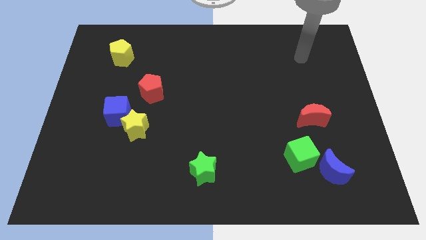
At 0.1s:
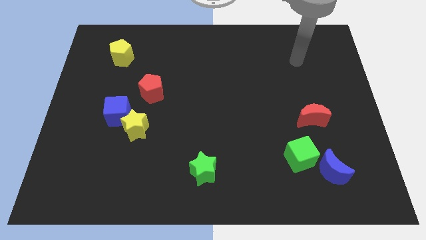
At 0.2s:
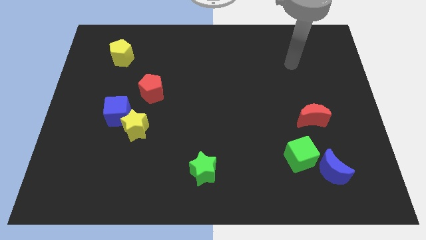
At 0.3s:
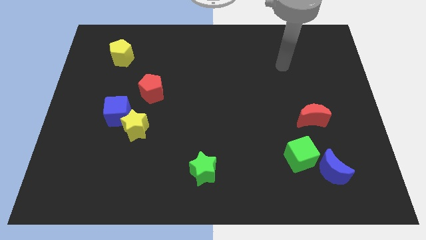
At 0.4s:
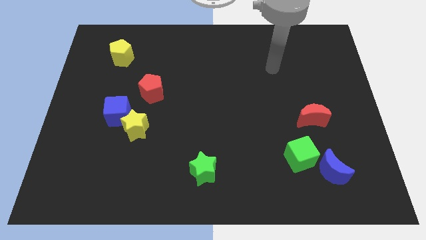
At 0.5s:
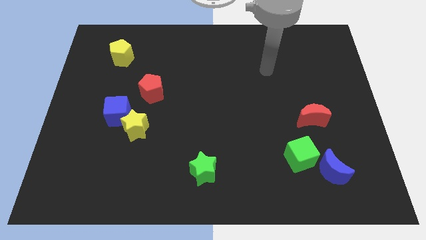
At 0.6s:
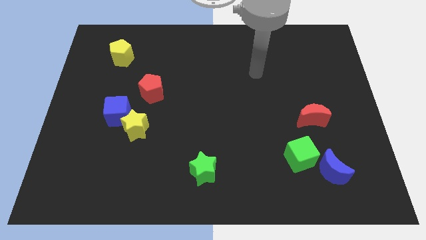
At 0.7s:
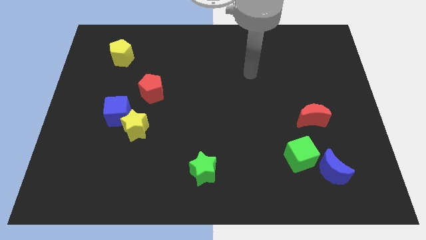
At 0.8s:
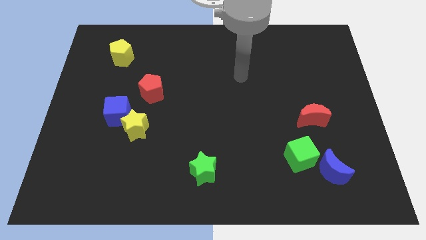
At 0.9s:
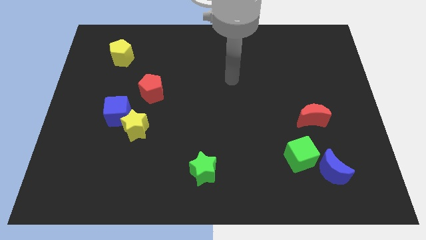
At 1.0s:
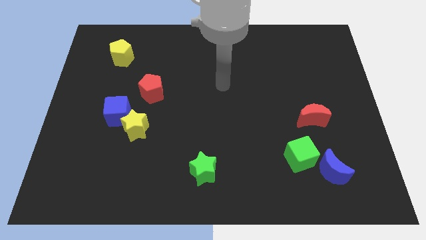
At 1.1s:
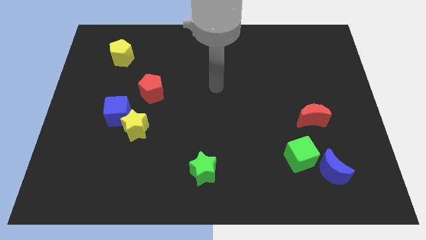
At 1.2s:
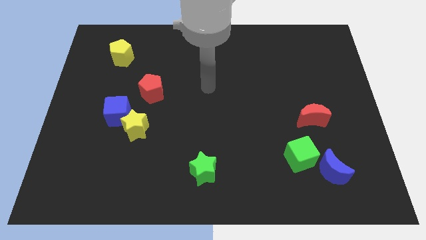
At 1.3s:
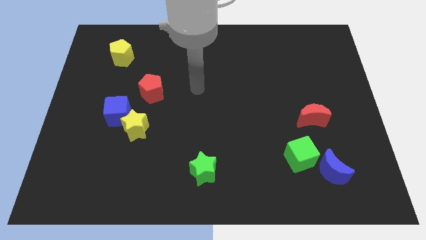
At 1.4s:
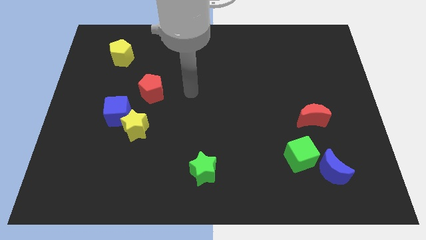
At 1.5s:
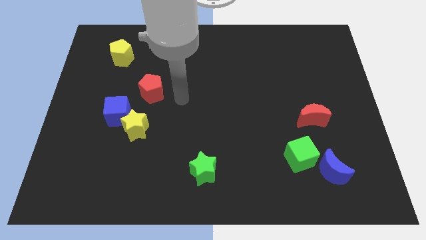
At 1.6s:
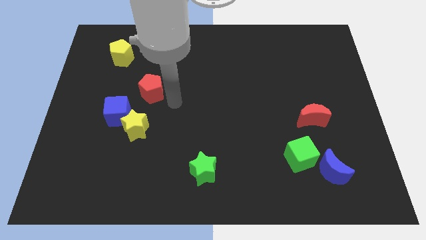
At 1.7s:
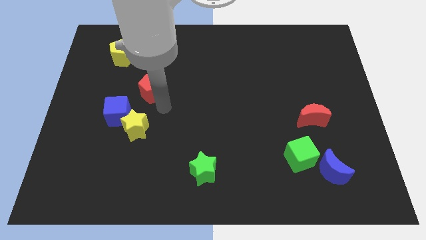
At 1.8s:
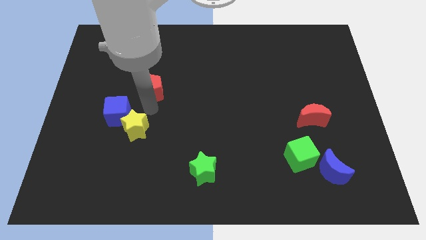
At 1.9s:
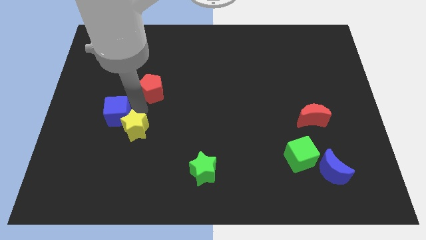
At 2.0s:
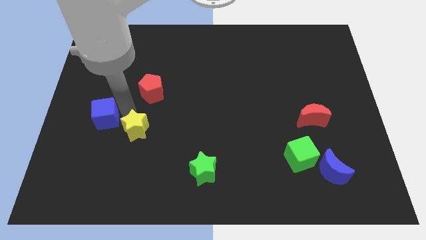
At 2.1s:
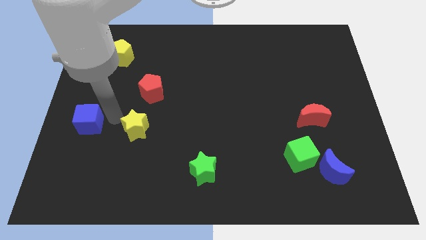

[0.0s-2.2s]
separate the yellow star from the blue cube

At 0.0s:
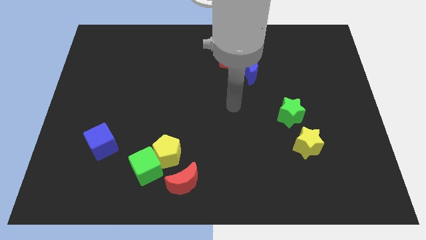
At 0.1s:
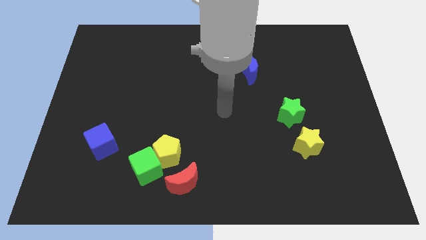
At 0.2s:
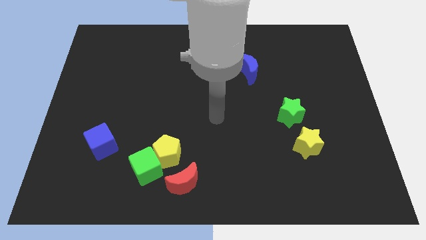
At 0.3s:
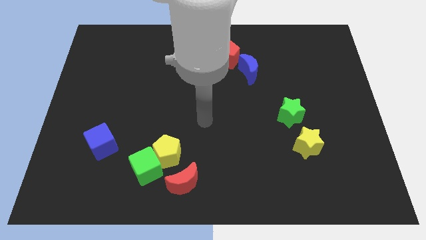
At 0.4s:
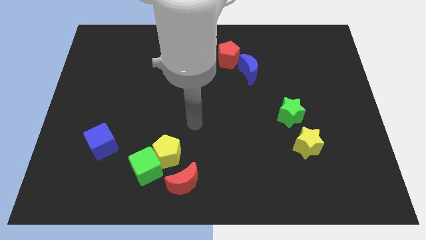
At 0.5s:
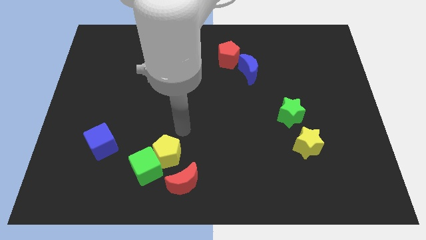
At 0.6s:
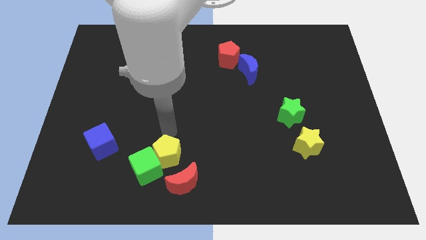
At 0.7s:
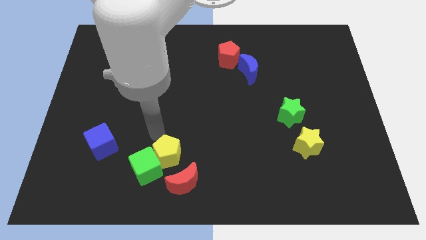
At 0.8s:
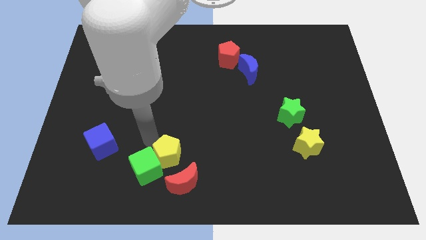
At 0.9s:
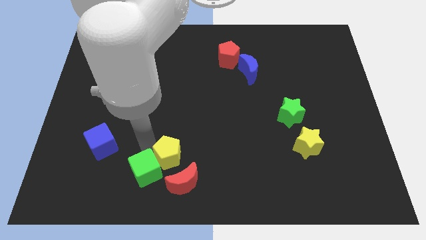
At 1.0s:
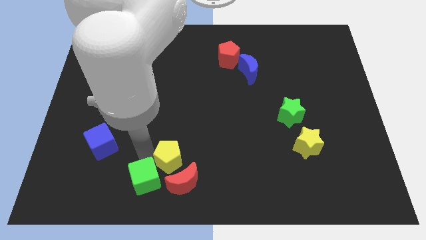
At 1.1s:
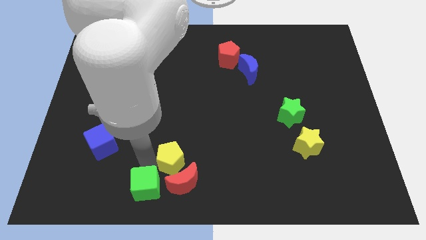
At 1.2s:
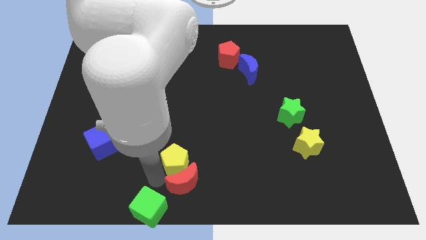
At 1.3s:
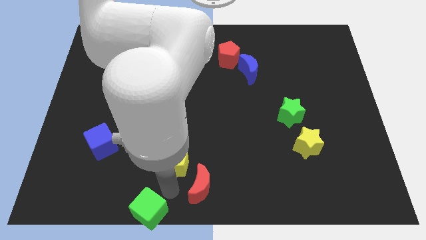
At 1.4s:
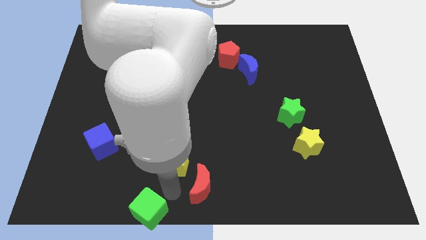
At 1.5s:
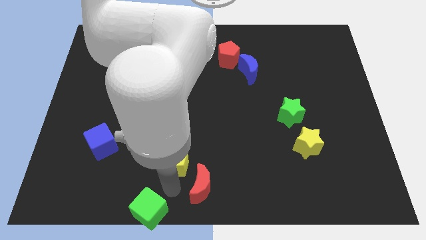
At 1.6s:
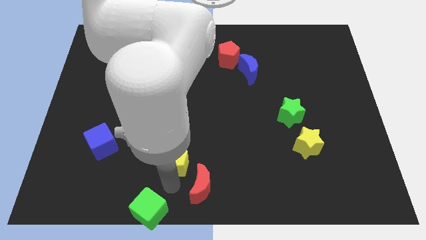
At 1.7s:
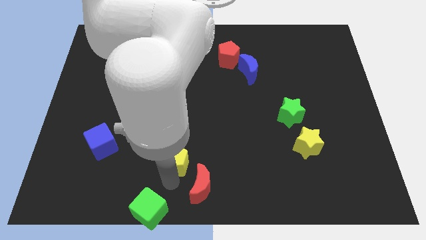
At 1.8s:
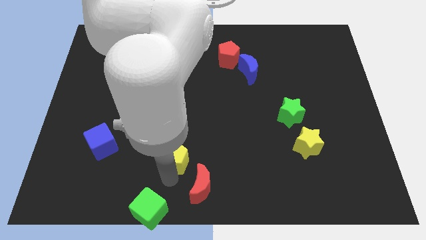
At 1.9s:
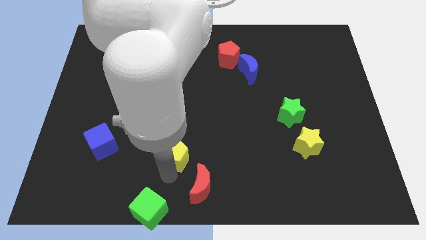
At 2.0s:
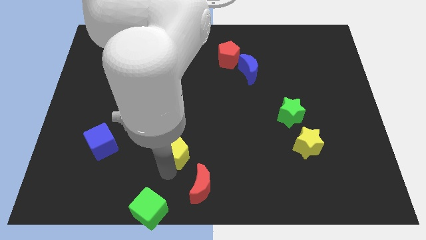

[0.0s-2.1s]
separate the yellow pentagon from the green cube and red moon

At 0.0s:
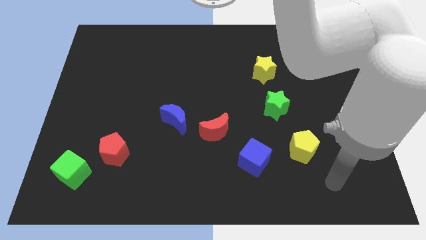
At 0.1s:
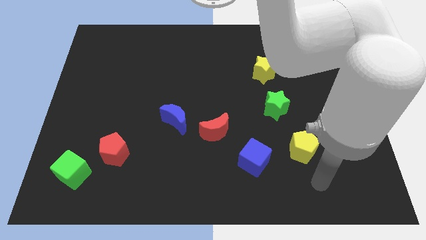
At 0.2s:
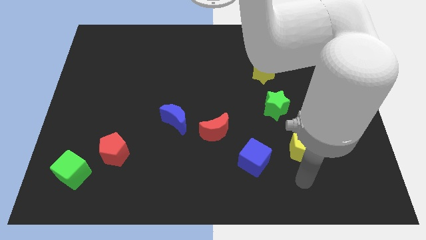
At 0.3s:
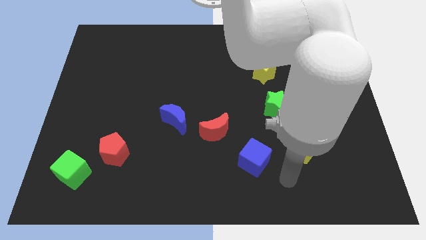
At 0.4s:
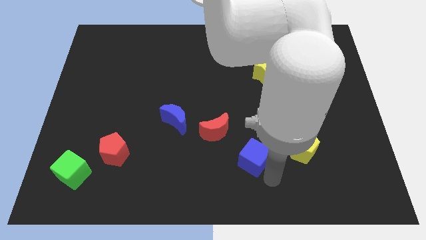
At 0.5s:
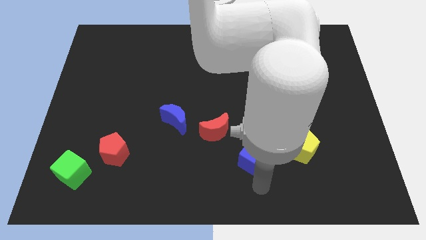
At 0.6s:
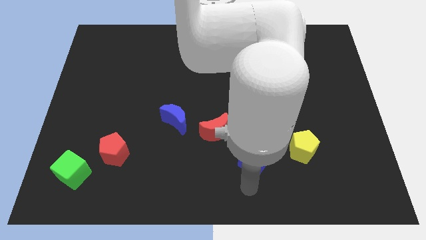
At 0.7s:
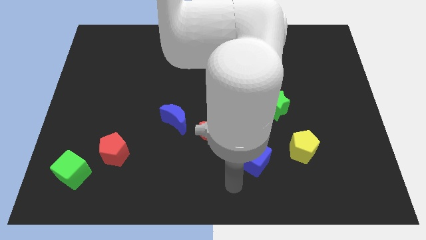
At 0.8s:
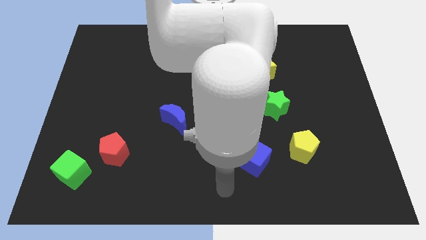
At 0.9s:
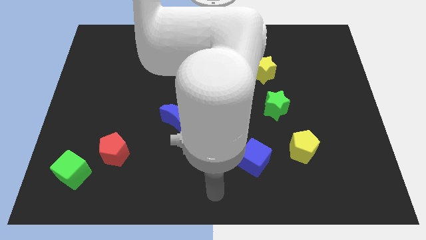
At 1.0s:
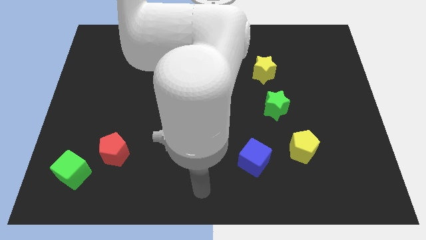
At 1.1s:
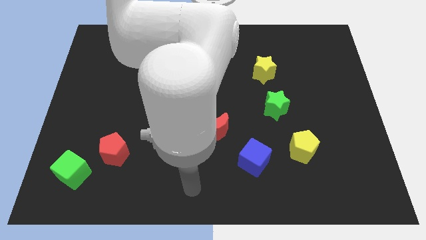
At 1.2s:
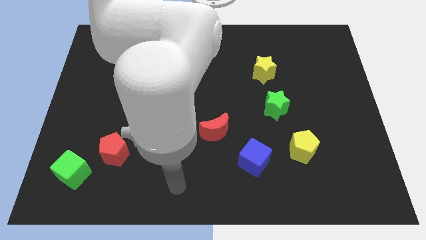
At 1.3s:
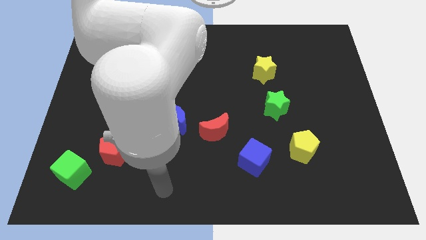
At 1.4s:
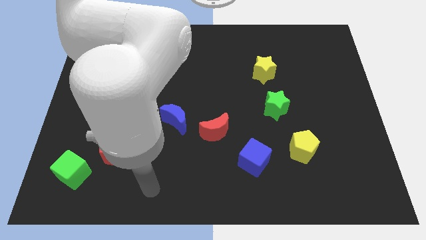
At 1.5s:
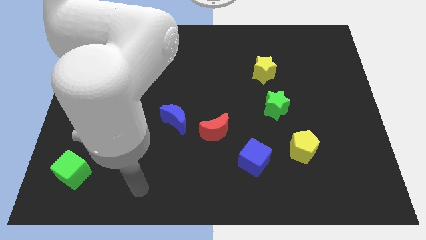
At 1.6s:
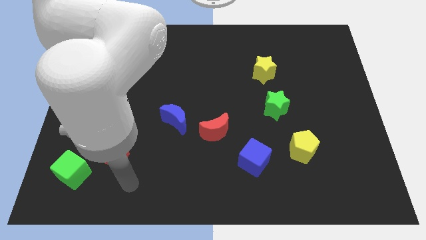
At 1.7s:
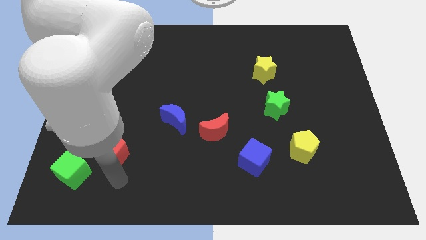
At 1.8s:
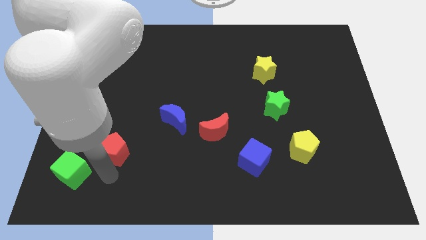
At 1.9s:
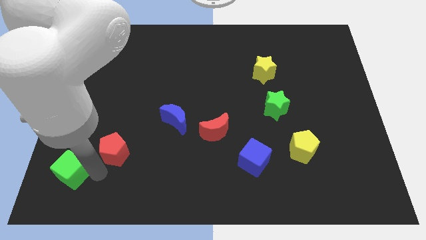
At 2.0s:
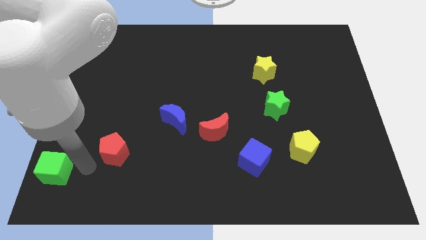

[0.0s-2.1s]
pull the red pentagon apart from the green cube

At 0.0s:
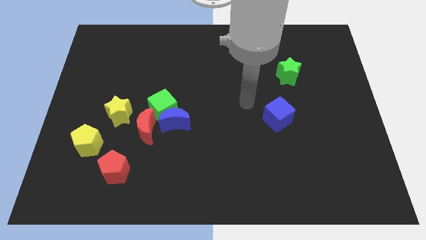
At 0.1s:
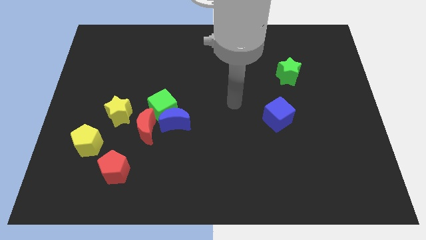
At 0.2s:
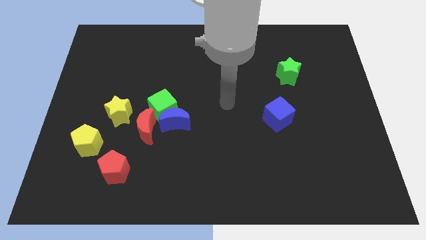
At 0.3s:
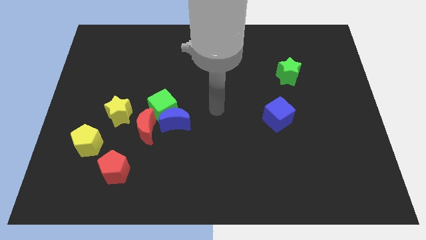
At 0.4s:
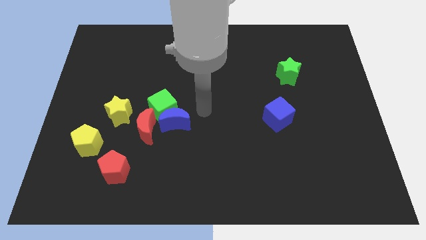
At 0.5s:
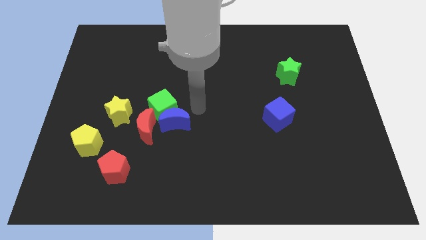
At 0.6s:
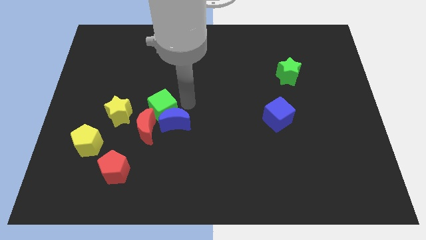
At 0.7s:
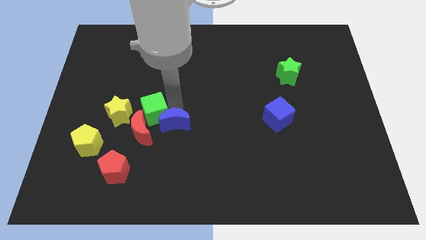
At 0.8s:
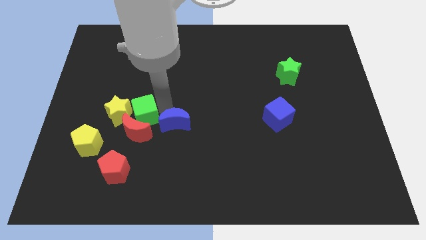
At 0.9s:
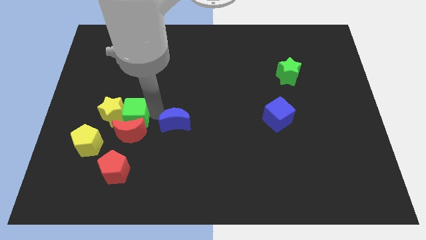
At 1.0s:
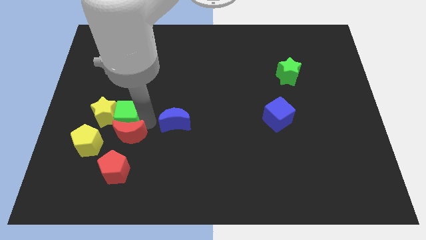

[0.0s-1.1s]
separate the blue moon from the green cube and red moon

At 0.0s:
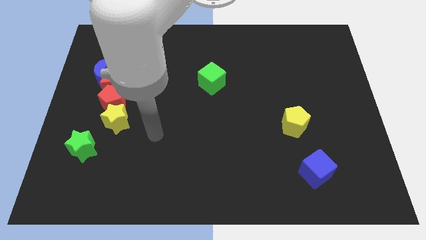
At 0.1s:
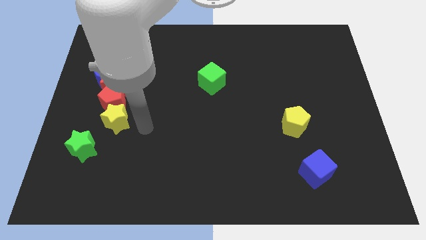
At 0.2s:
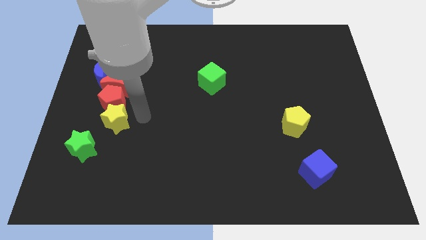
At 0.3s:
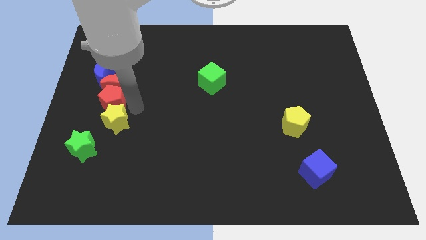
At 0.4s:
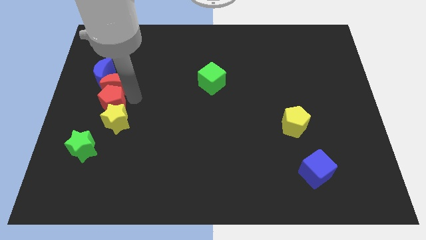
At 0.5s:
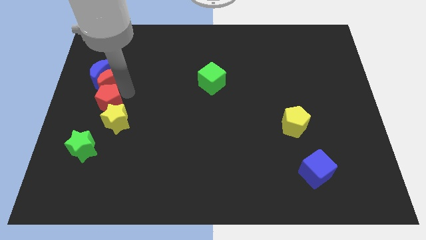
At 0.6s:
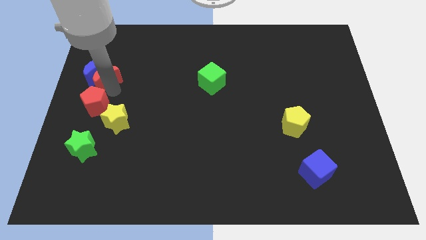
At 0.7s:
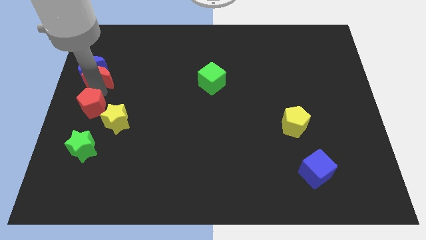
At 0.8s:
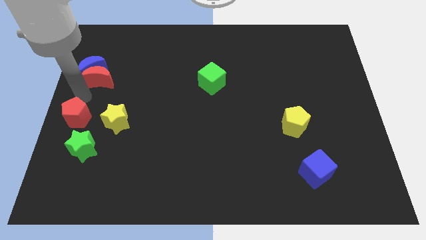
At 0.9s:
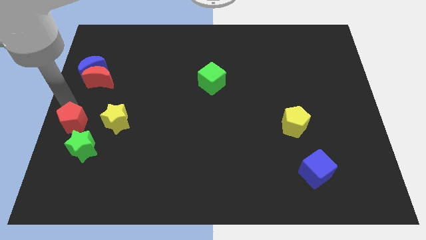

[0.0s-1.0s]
separate the red pentagon from the group of blocks

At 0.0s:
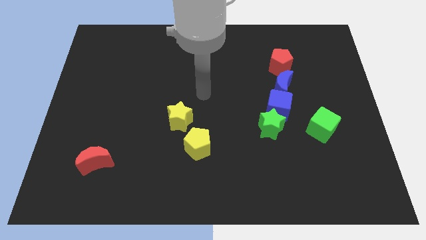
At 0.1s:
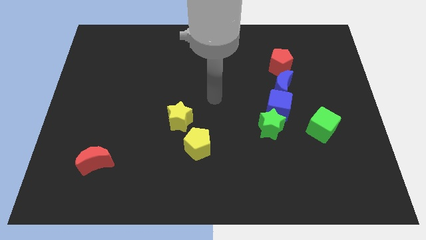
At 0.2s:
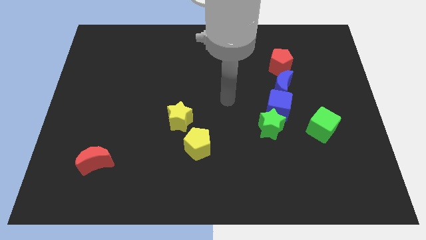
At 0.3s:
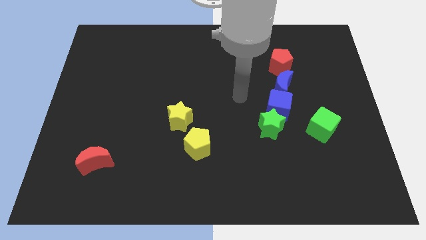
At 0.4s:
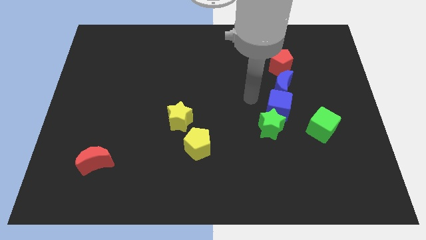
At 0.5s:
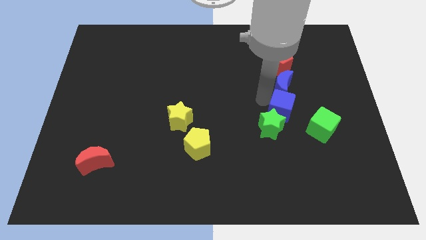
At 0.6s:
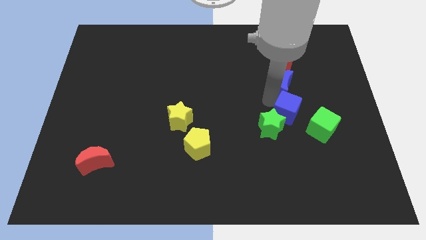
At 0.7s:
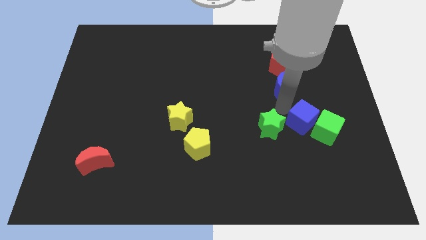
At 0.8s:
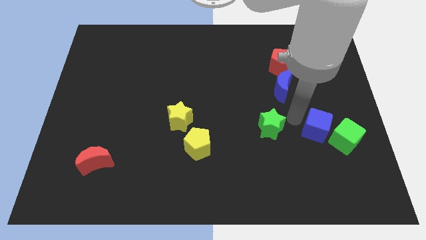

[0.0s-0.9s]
separate the green star from the blue cube
